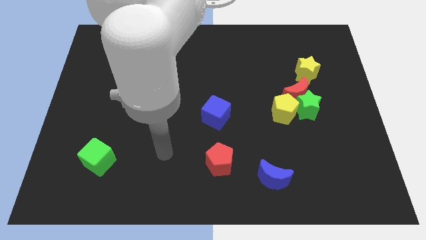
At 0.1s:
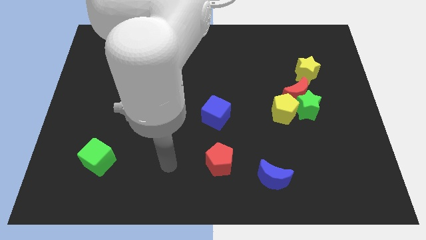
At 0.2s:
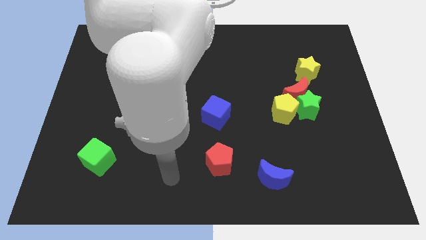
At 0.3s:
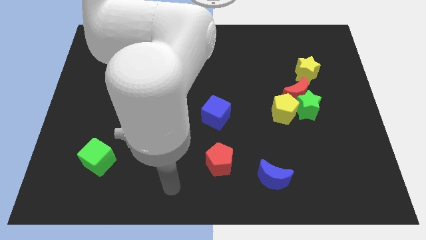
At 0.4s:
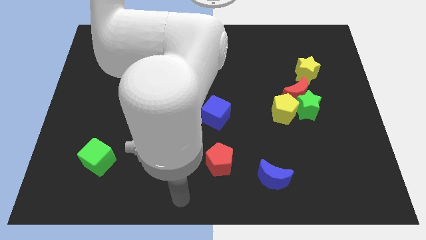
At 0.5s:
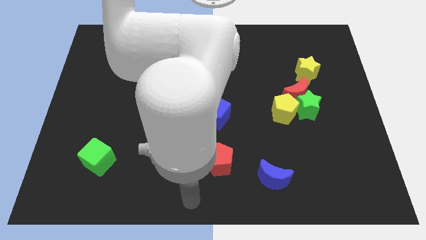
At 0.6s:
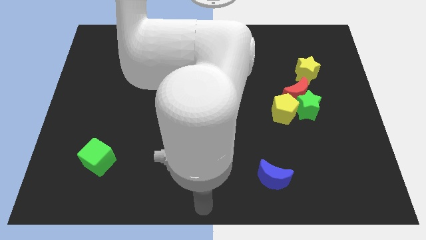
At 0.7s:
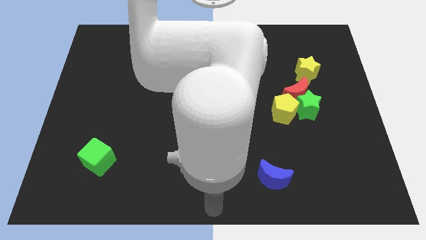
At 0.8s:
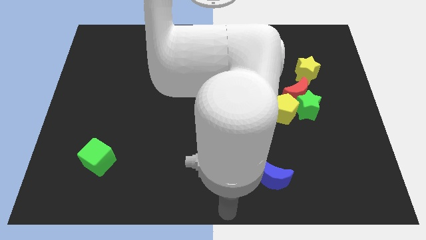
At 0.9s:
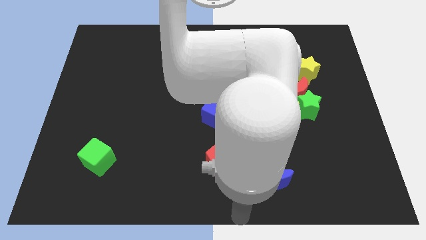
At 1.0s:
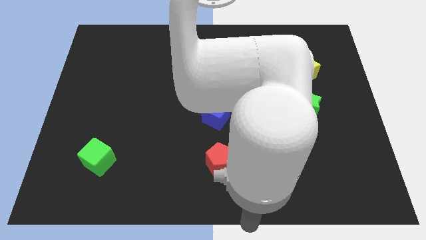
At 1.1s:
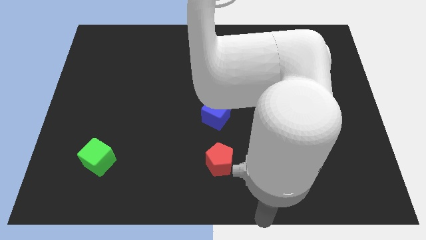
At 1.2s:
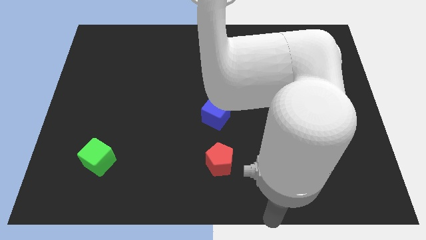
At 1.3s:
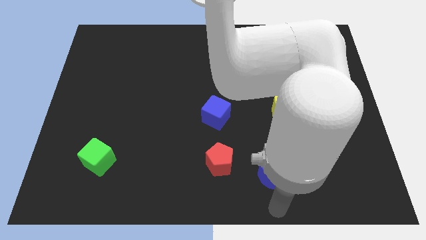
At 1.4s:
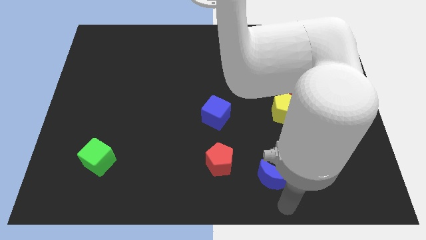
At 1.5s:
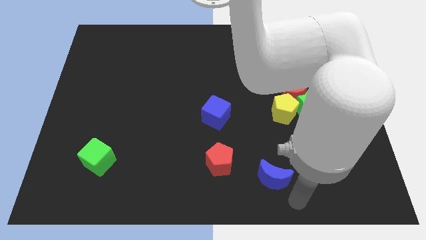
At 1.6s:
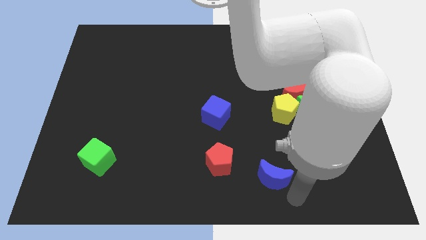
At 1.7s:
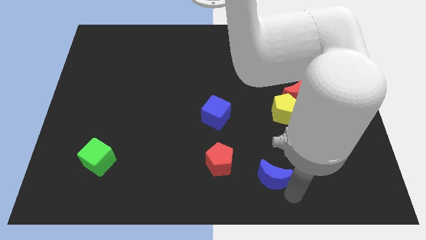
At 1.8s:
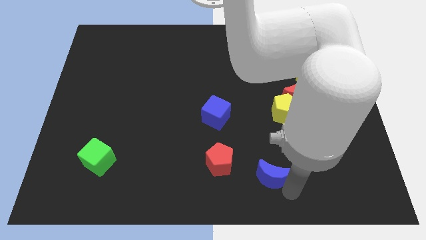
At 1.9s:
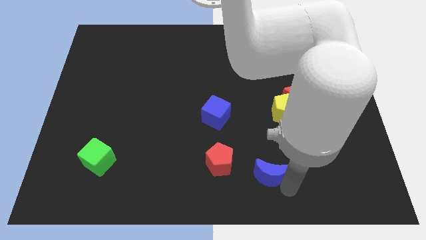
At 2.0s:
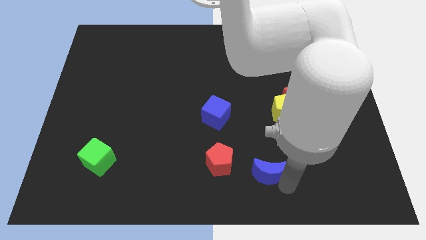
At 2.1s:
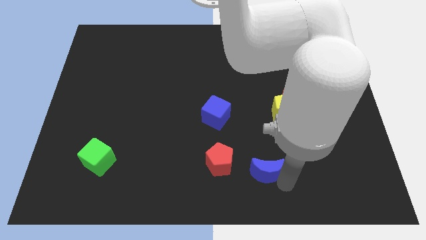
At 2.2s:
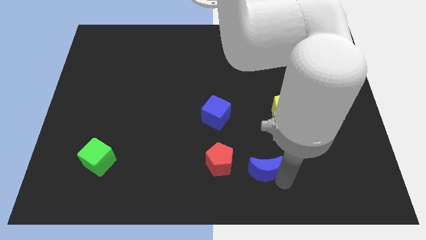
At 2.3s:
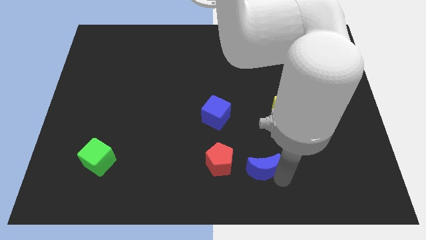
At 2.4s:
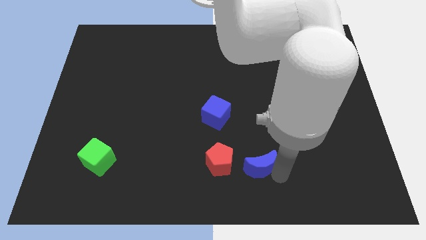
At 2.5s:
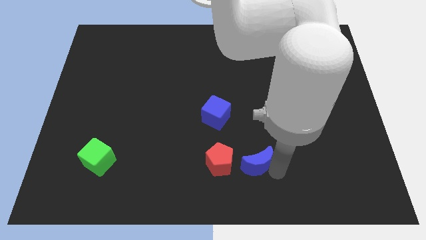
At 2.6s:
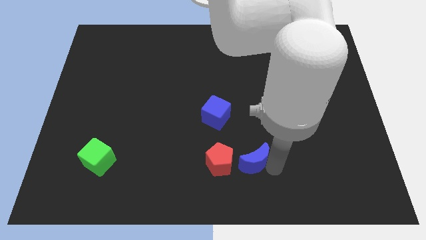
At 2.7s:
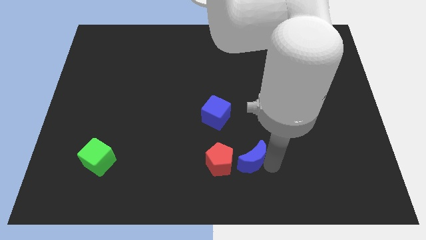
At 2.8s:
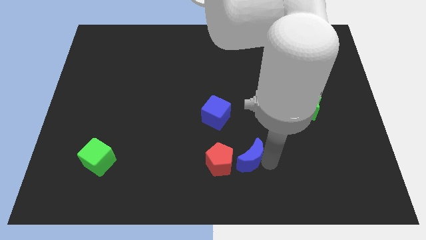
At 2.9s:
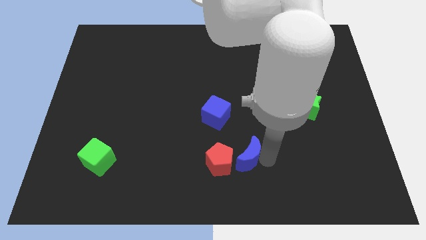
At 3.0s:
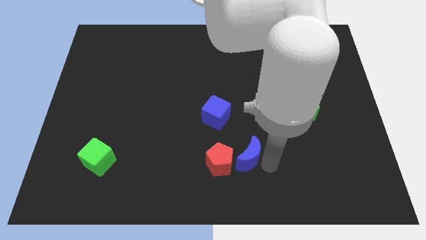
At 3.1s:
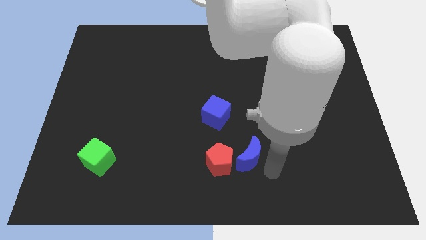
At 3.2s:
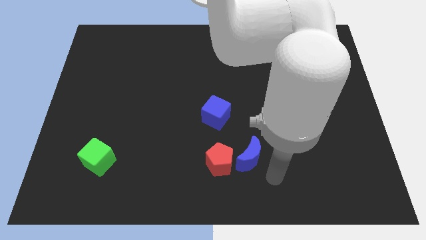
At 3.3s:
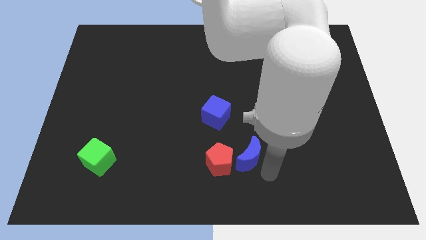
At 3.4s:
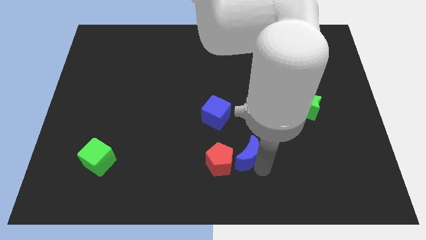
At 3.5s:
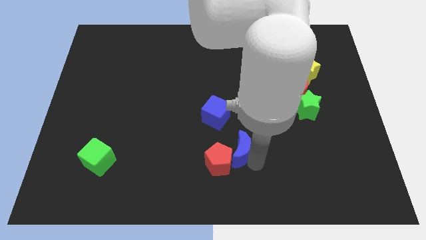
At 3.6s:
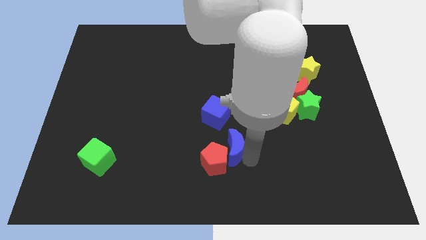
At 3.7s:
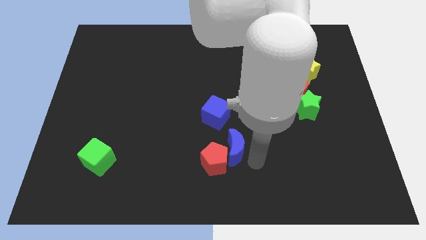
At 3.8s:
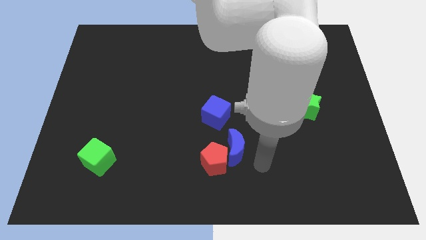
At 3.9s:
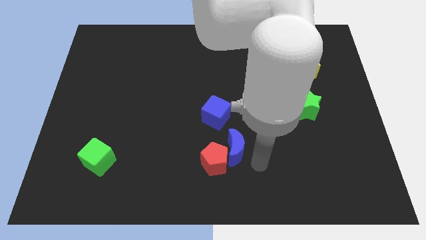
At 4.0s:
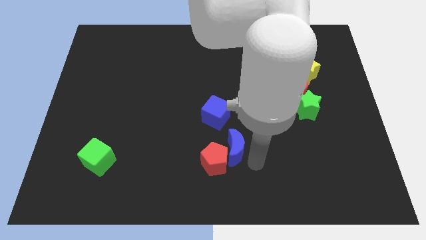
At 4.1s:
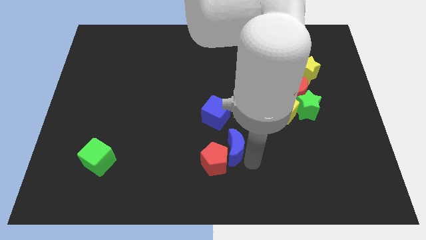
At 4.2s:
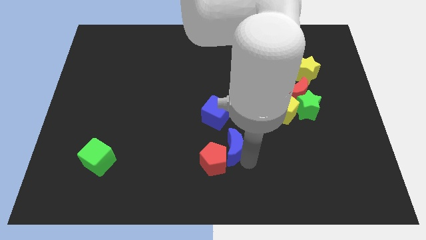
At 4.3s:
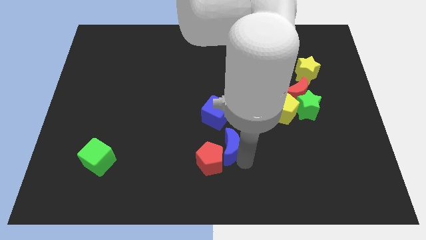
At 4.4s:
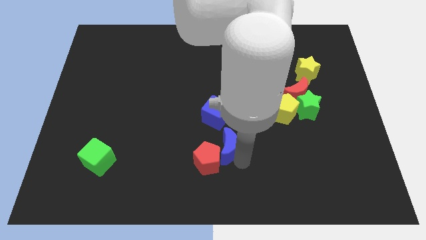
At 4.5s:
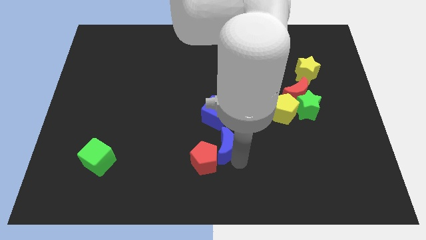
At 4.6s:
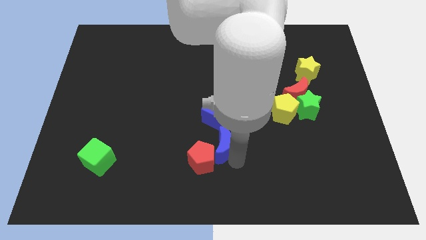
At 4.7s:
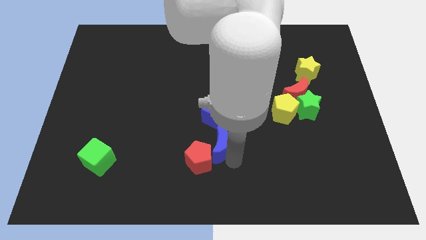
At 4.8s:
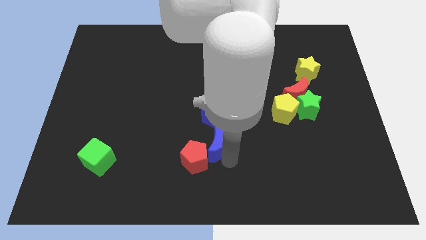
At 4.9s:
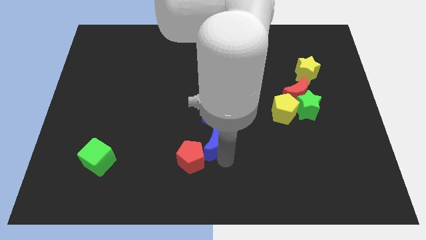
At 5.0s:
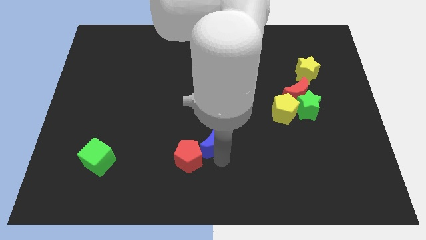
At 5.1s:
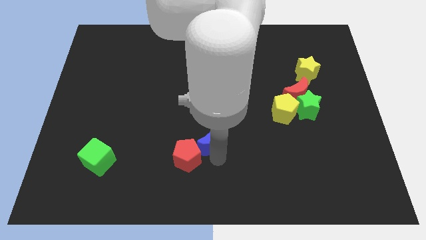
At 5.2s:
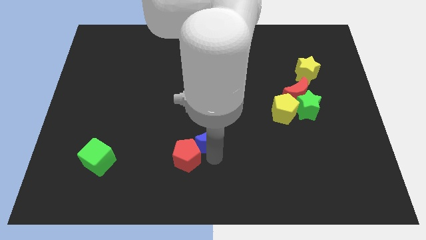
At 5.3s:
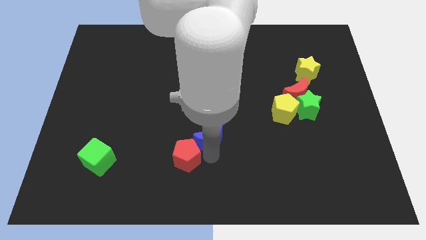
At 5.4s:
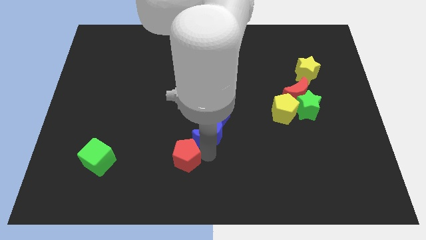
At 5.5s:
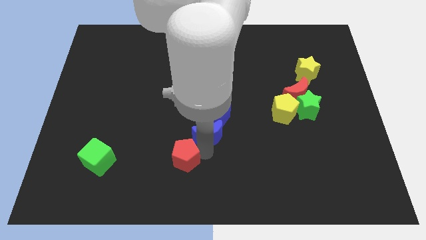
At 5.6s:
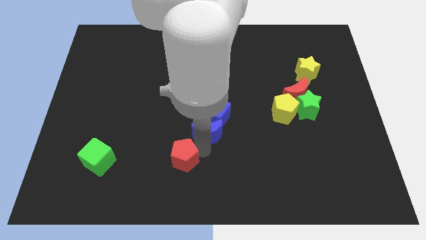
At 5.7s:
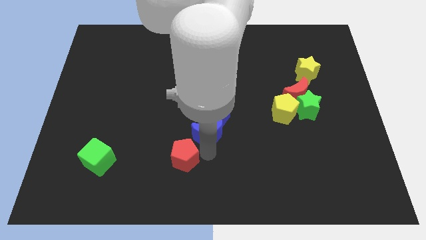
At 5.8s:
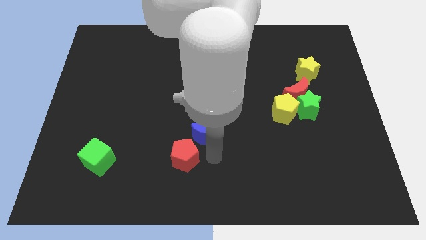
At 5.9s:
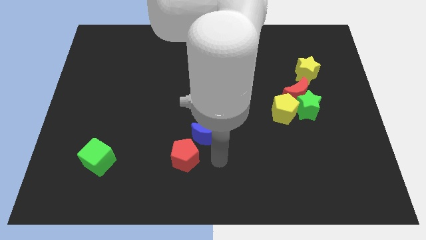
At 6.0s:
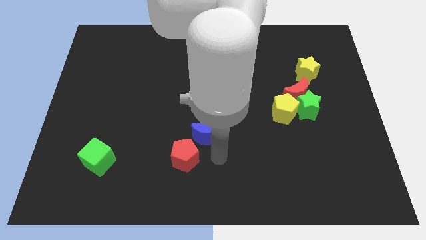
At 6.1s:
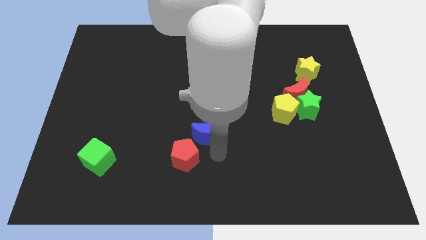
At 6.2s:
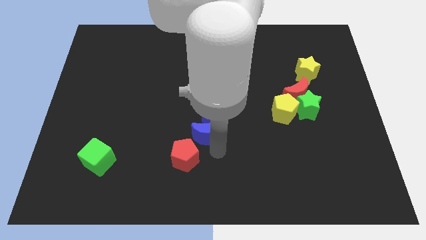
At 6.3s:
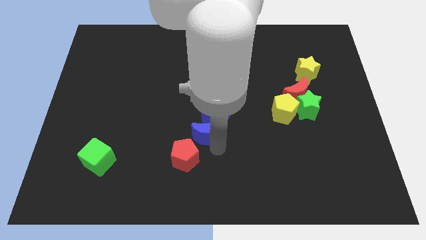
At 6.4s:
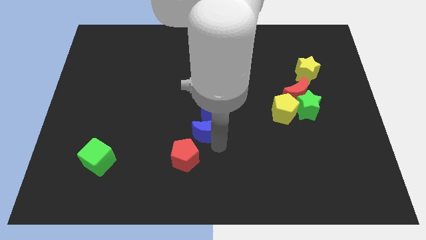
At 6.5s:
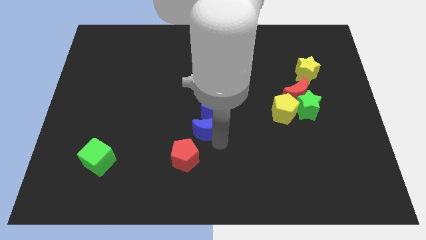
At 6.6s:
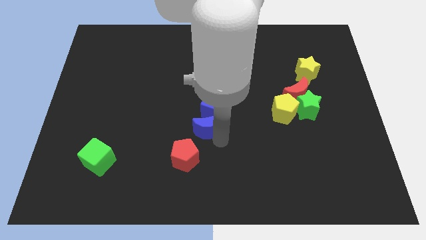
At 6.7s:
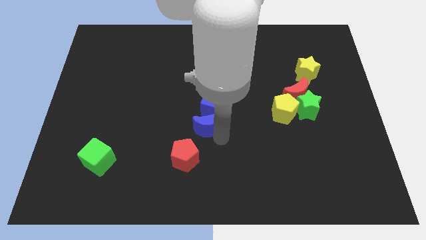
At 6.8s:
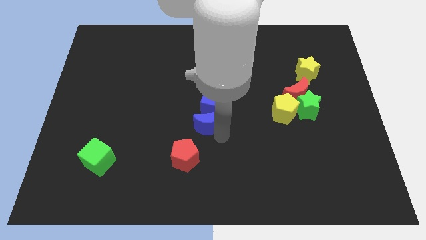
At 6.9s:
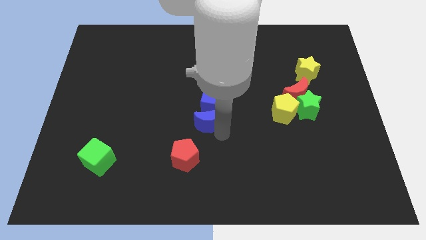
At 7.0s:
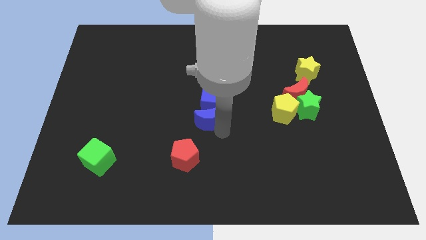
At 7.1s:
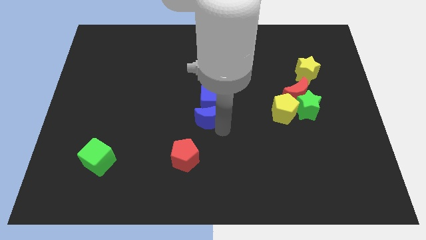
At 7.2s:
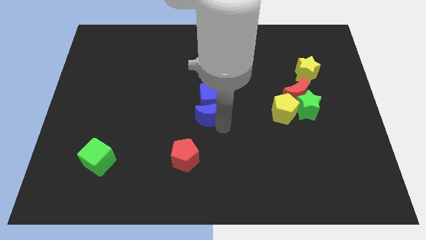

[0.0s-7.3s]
slide the blue moon upwards and then to the left

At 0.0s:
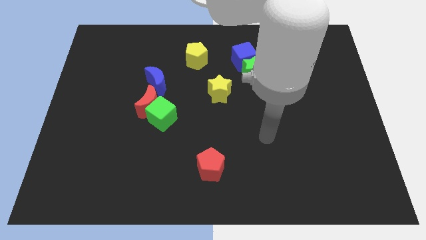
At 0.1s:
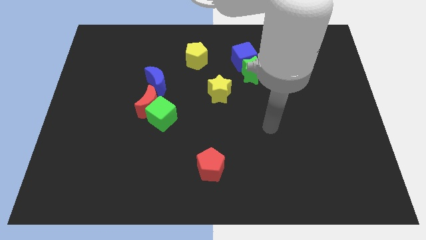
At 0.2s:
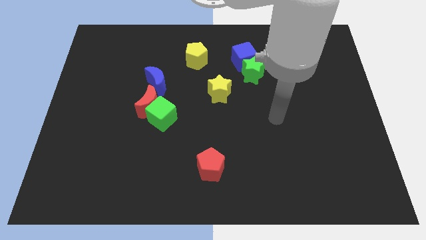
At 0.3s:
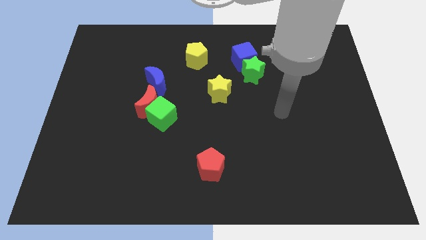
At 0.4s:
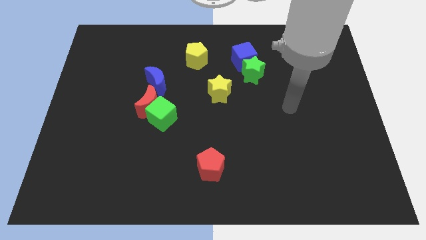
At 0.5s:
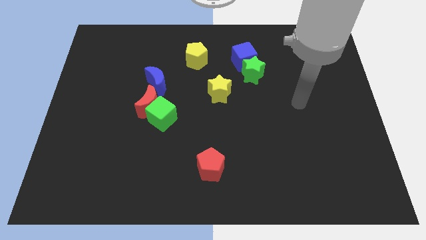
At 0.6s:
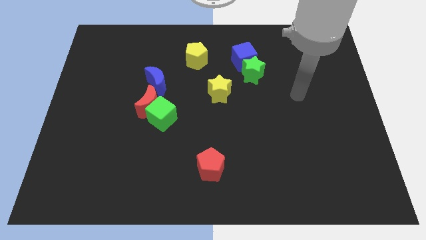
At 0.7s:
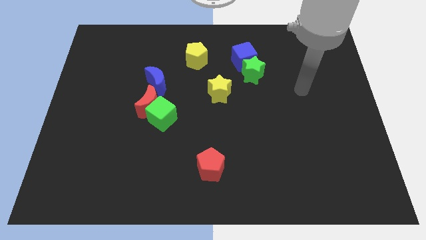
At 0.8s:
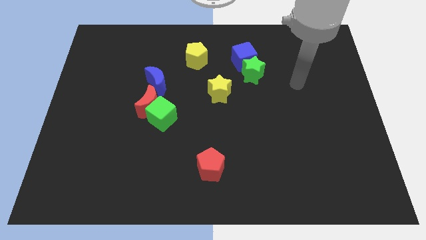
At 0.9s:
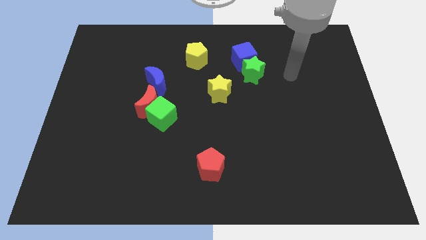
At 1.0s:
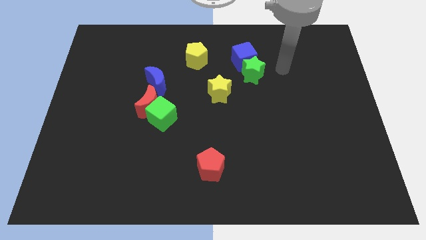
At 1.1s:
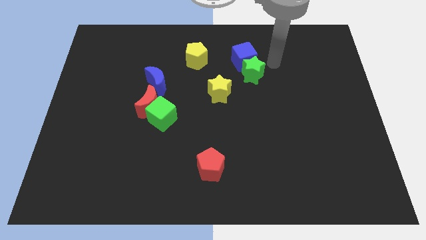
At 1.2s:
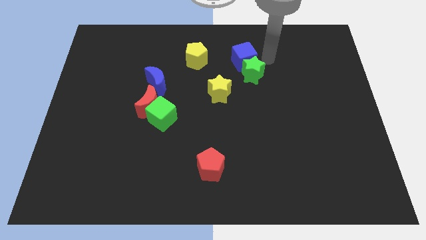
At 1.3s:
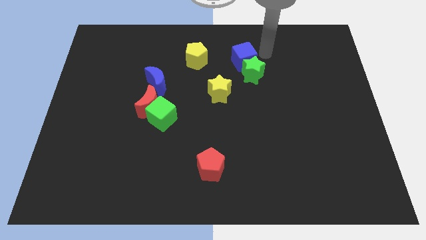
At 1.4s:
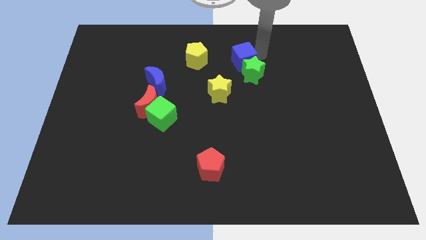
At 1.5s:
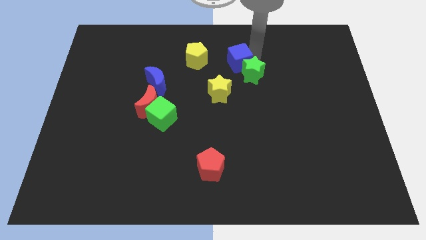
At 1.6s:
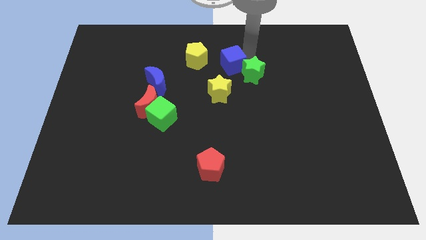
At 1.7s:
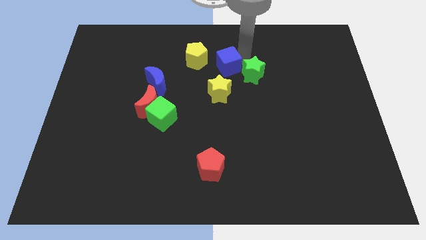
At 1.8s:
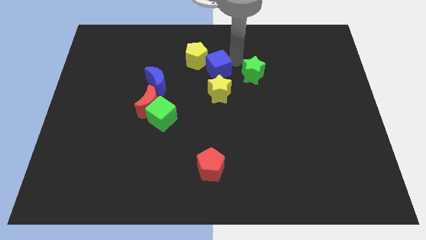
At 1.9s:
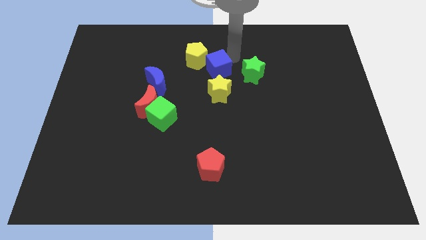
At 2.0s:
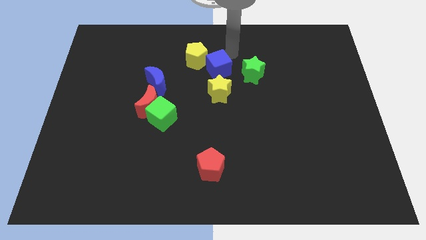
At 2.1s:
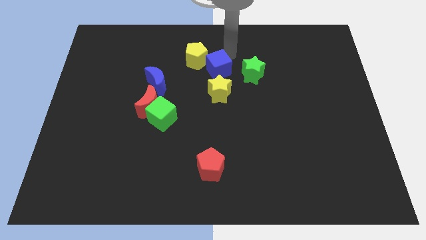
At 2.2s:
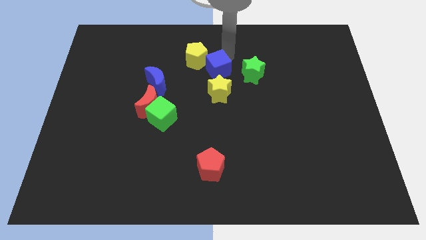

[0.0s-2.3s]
slide the blue cube a little downwards and to the left diagonally
